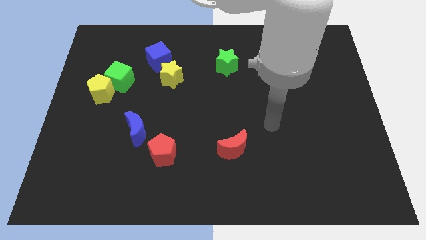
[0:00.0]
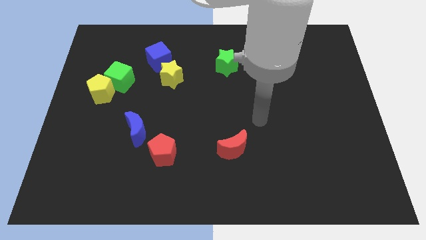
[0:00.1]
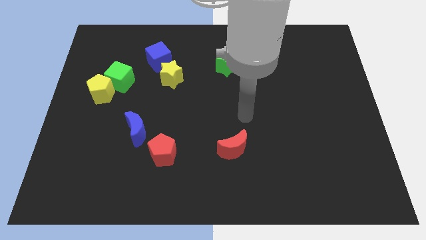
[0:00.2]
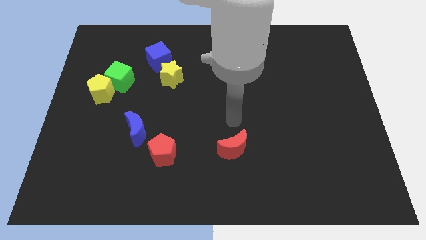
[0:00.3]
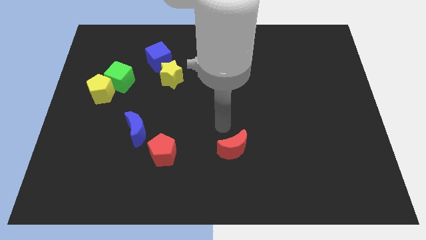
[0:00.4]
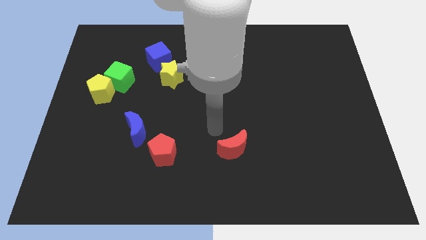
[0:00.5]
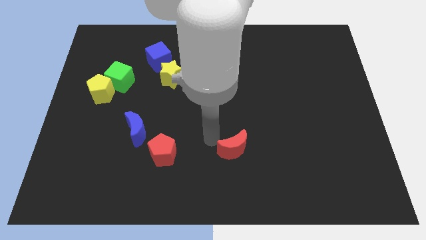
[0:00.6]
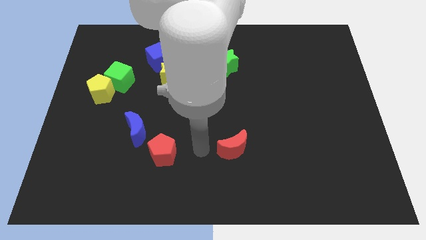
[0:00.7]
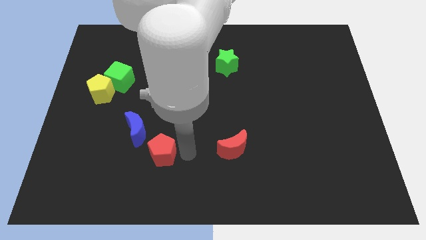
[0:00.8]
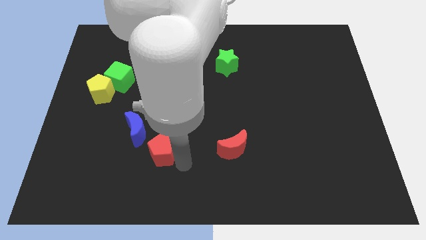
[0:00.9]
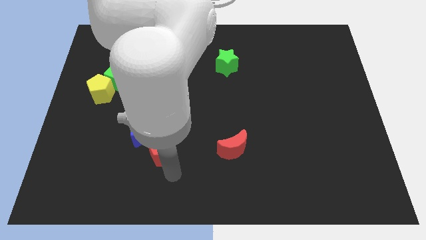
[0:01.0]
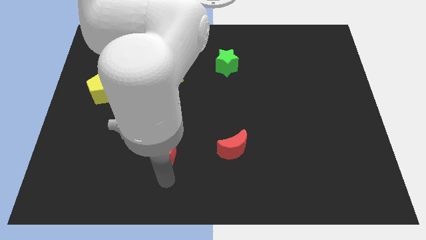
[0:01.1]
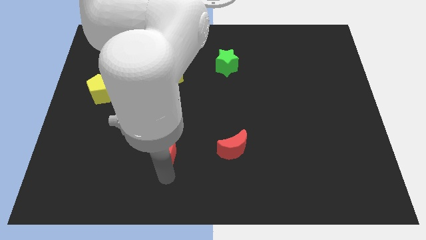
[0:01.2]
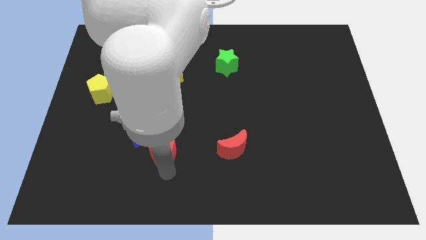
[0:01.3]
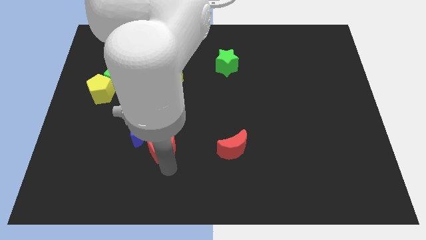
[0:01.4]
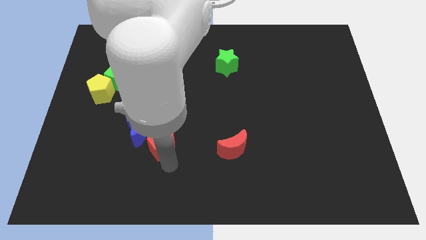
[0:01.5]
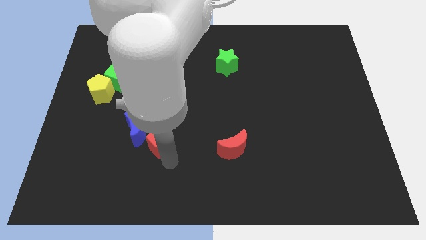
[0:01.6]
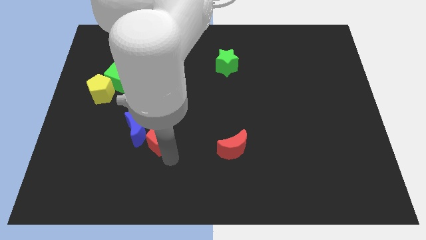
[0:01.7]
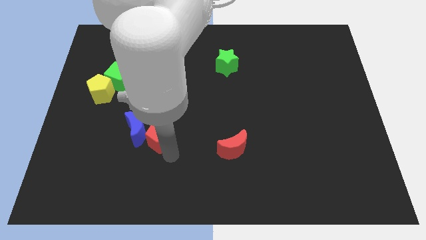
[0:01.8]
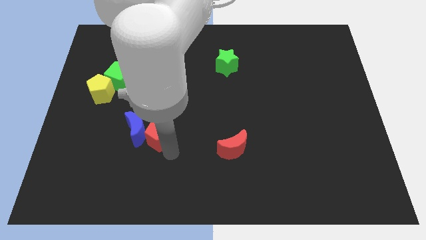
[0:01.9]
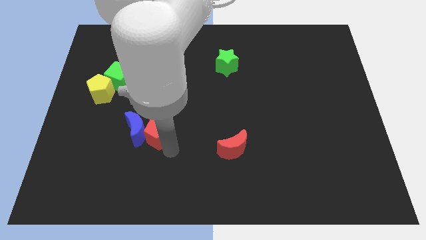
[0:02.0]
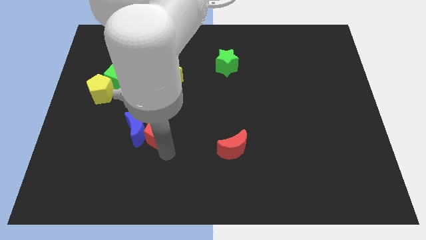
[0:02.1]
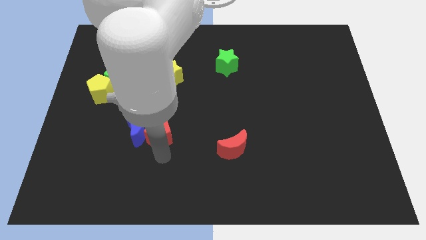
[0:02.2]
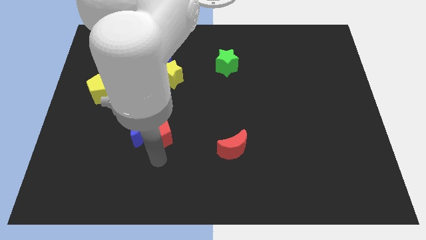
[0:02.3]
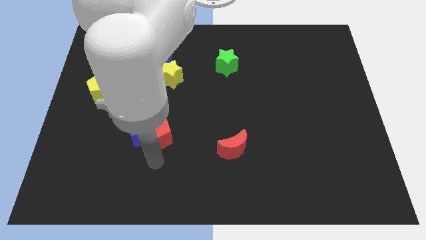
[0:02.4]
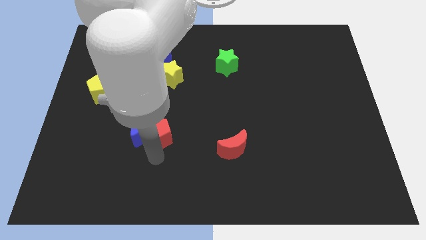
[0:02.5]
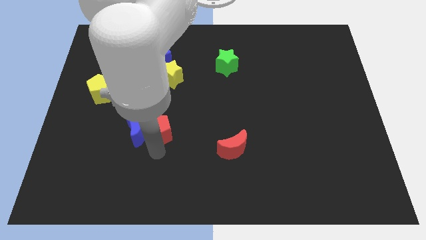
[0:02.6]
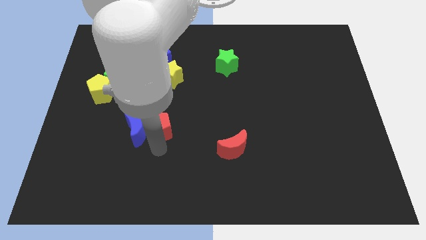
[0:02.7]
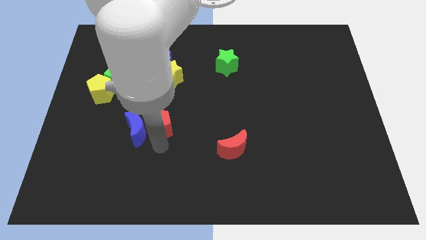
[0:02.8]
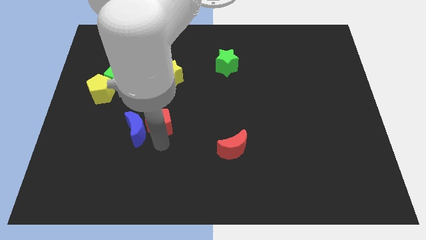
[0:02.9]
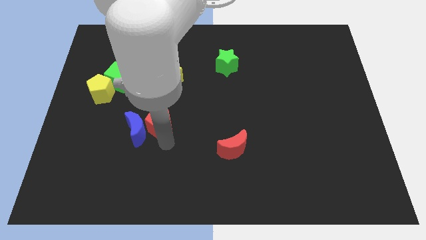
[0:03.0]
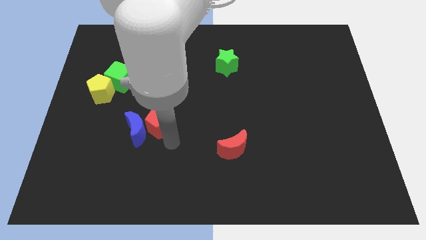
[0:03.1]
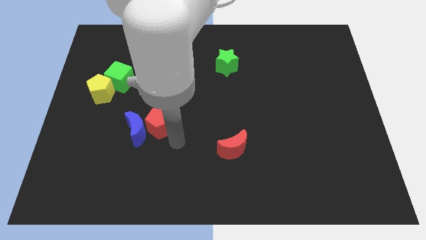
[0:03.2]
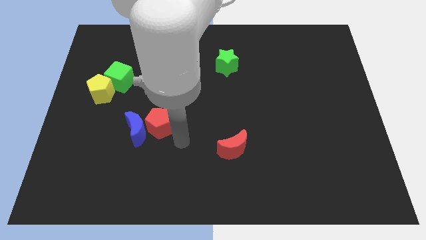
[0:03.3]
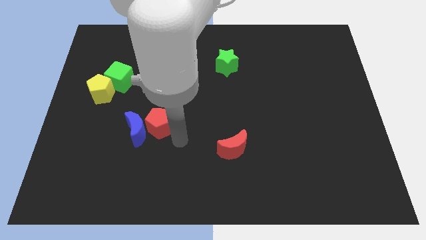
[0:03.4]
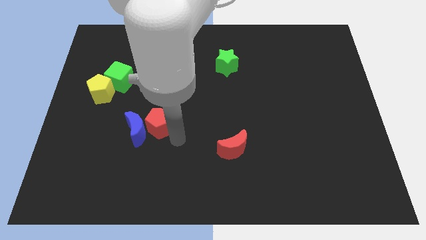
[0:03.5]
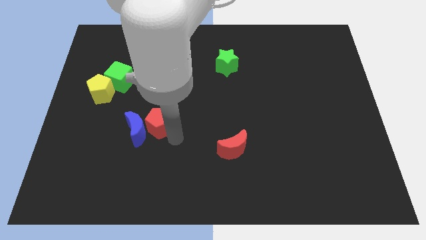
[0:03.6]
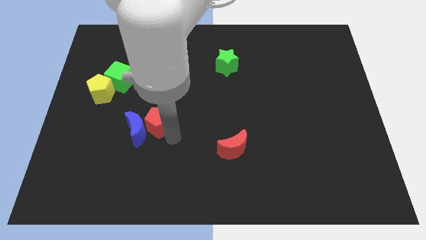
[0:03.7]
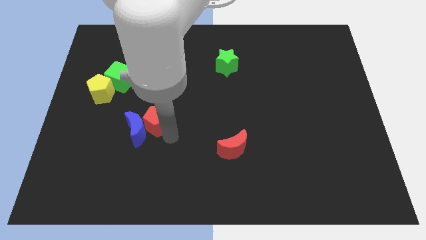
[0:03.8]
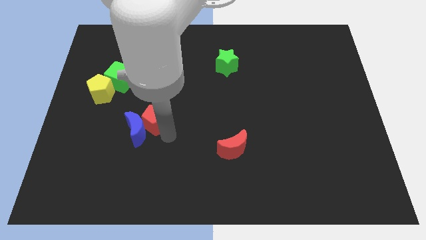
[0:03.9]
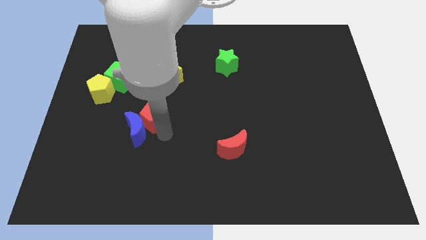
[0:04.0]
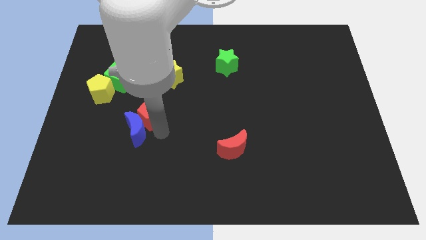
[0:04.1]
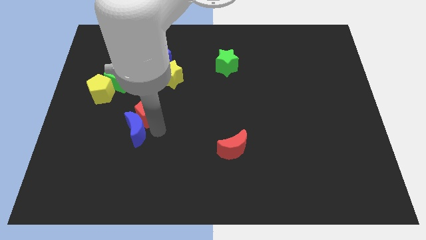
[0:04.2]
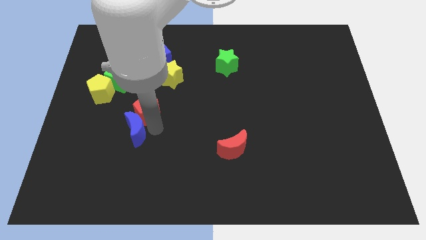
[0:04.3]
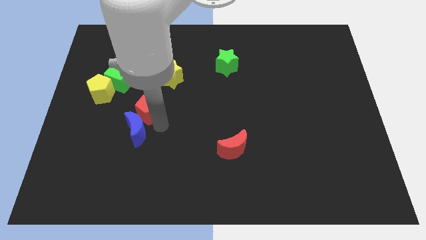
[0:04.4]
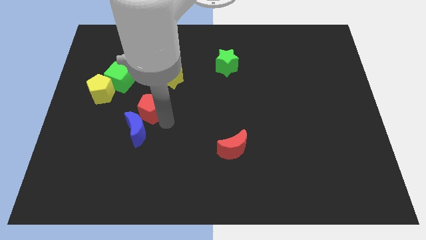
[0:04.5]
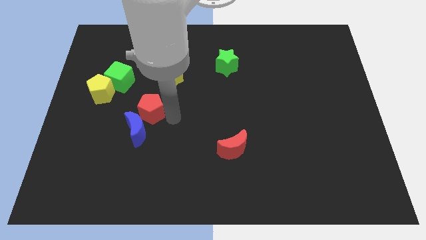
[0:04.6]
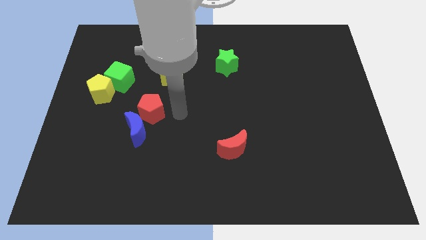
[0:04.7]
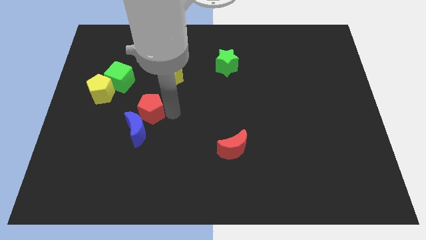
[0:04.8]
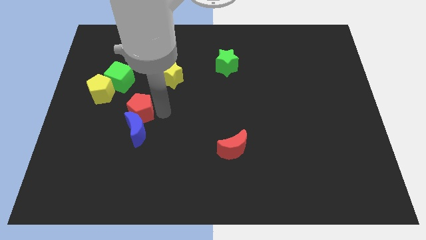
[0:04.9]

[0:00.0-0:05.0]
push the red pentagon diagonally down and to the right of the yellow pentagon

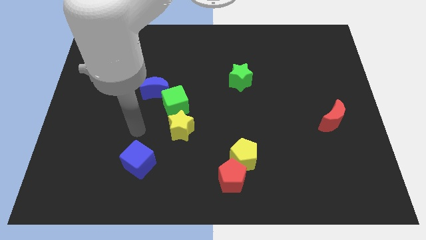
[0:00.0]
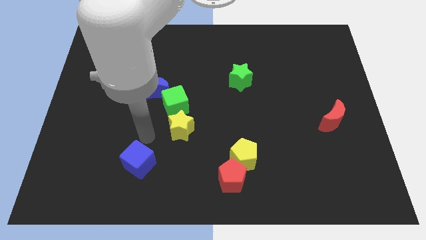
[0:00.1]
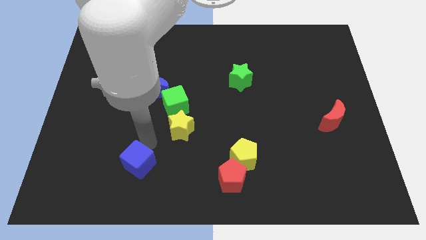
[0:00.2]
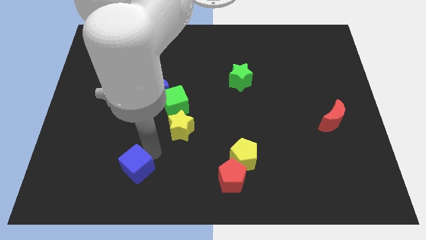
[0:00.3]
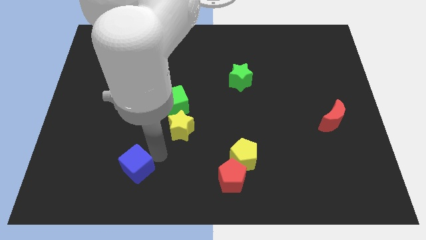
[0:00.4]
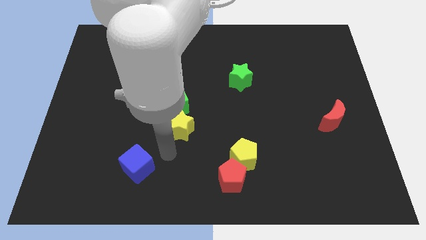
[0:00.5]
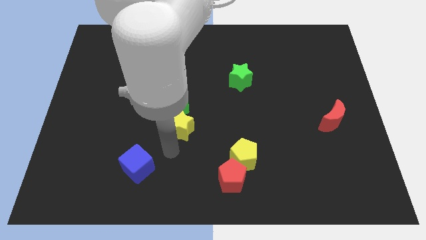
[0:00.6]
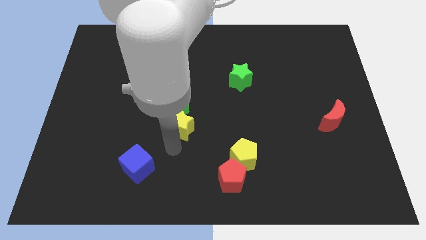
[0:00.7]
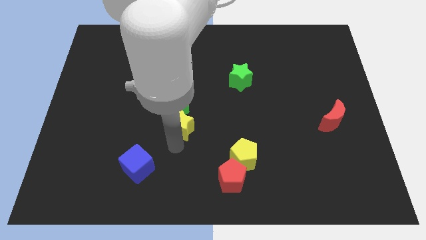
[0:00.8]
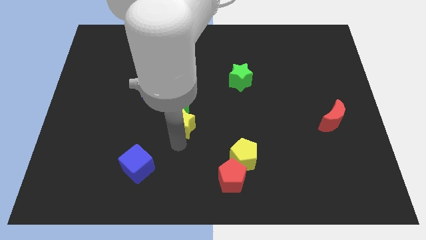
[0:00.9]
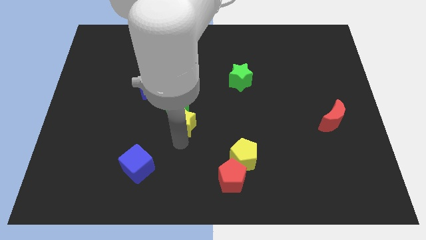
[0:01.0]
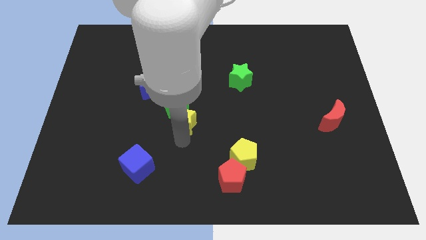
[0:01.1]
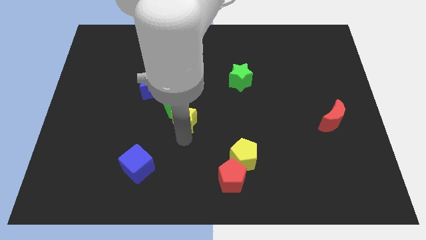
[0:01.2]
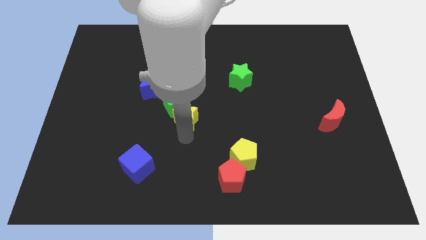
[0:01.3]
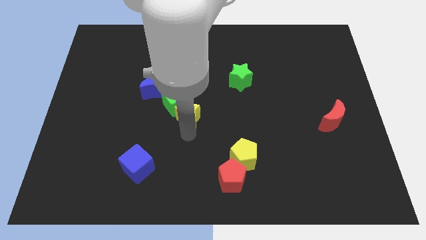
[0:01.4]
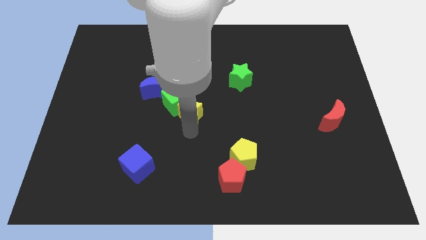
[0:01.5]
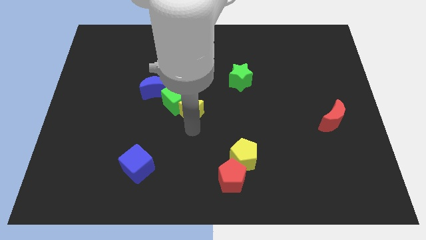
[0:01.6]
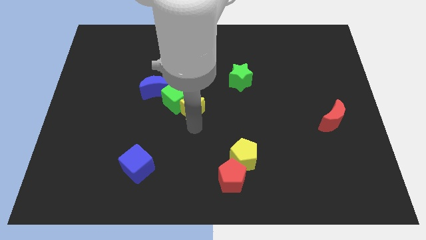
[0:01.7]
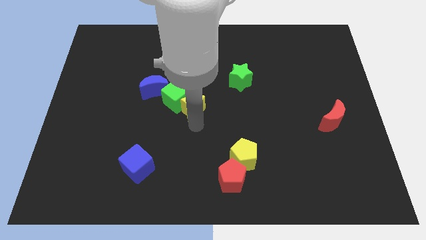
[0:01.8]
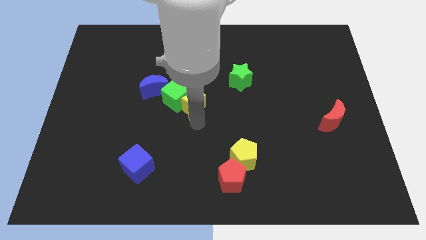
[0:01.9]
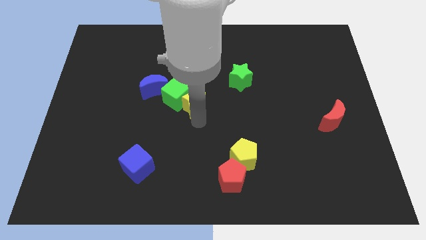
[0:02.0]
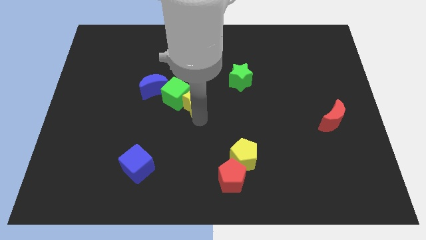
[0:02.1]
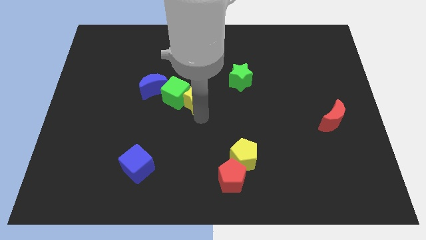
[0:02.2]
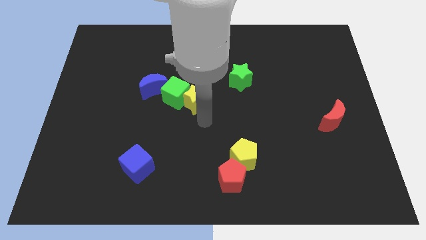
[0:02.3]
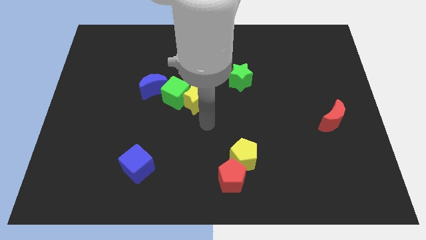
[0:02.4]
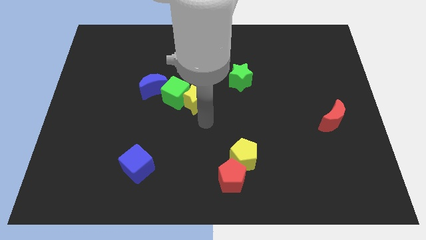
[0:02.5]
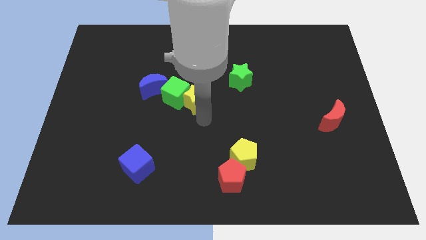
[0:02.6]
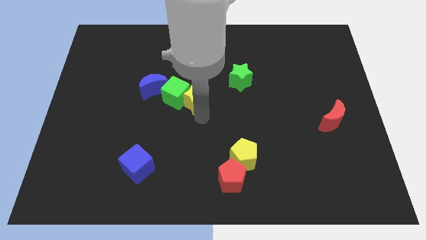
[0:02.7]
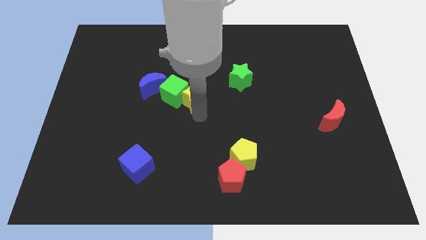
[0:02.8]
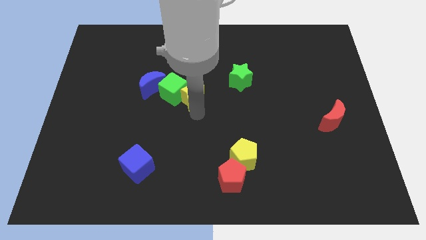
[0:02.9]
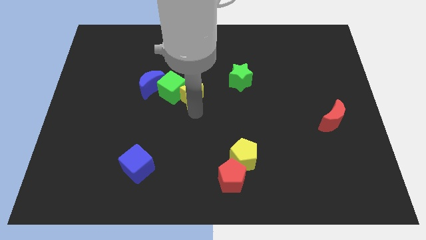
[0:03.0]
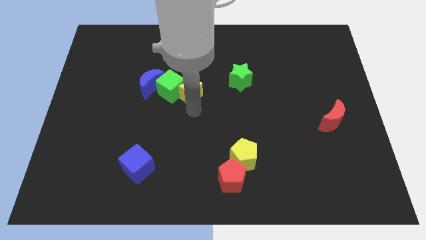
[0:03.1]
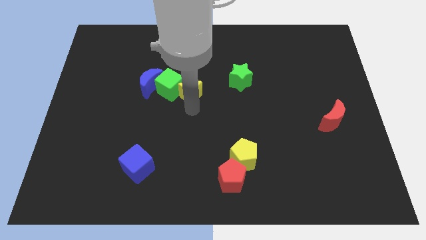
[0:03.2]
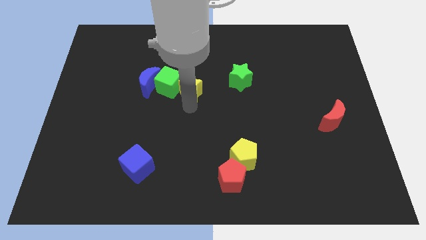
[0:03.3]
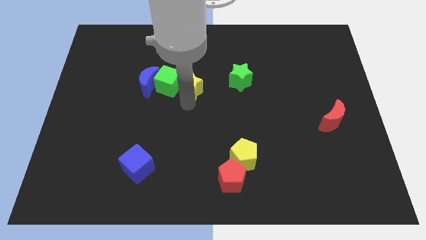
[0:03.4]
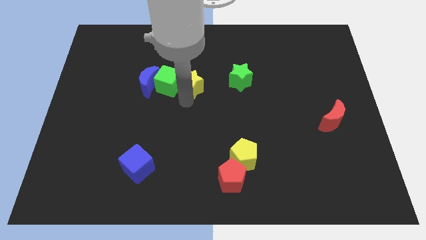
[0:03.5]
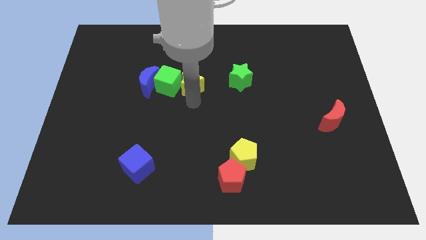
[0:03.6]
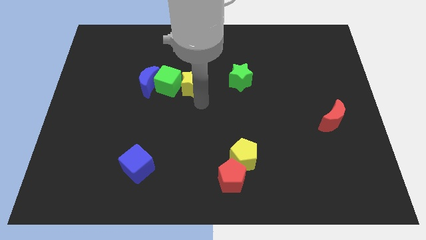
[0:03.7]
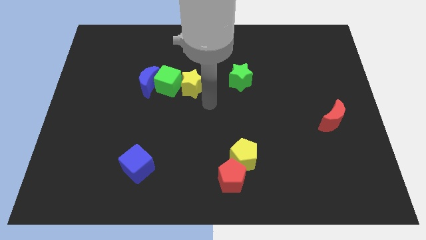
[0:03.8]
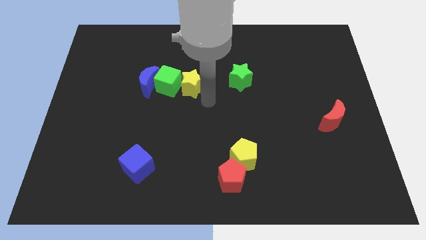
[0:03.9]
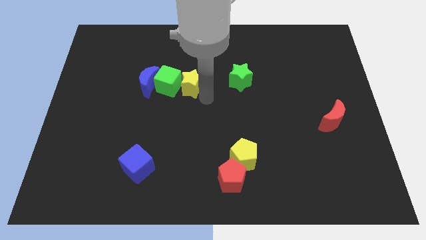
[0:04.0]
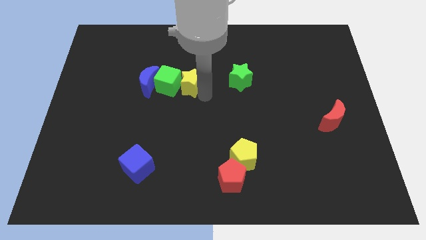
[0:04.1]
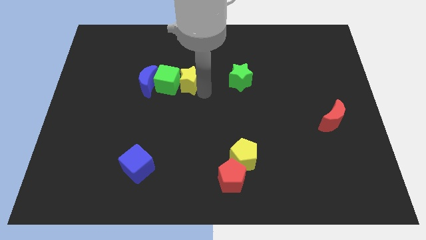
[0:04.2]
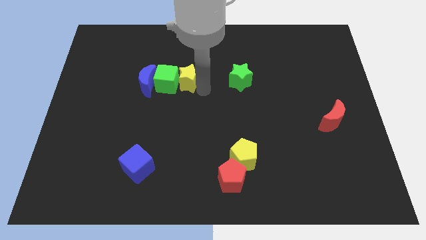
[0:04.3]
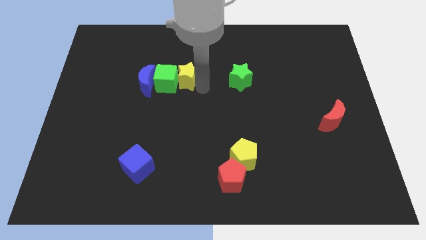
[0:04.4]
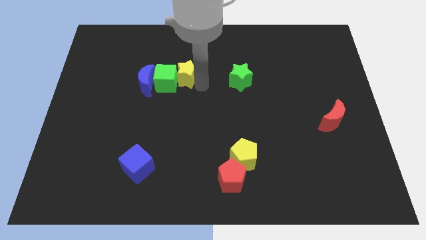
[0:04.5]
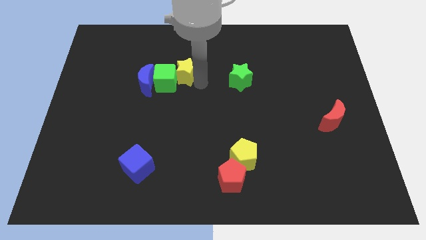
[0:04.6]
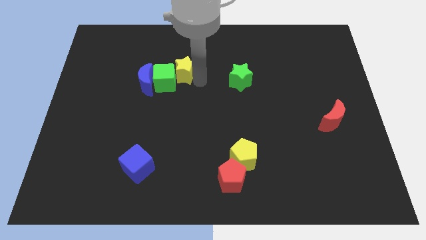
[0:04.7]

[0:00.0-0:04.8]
slide the yellow star to the top right side of the blue moon
